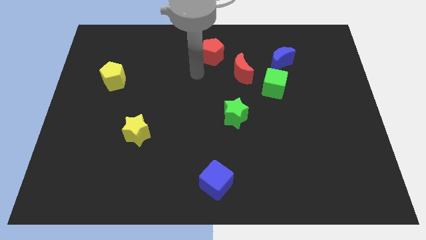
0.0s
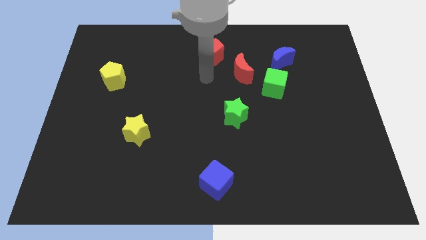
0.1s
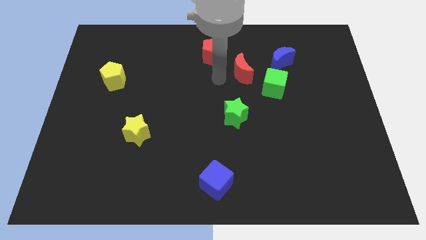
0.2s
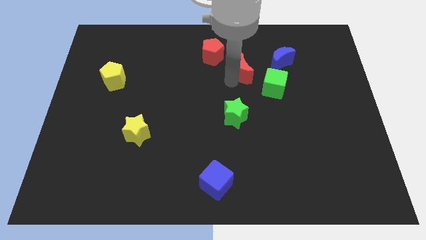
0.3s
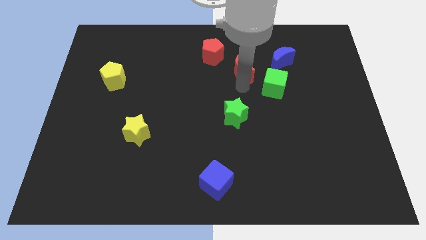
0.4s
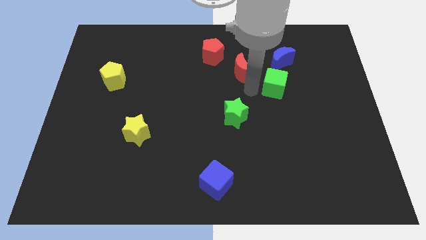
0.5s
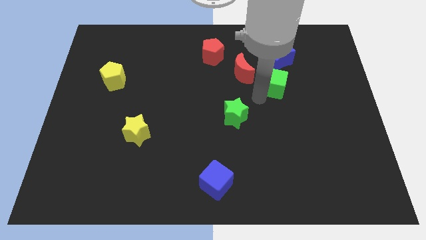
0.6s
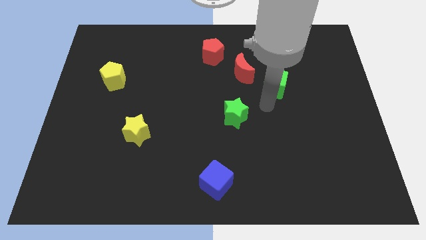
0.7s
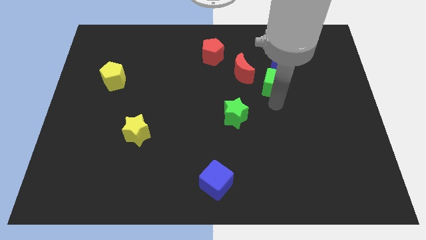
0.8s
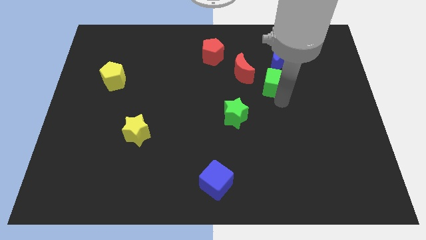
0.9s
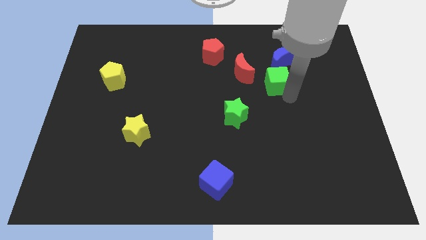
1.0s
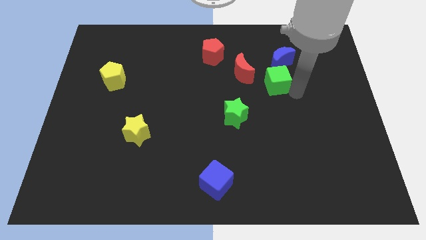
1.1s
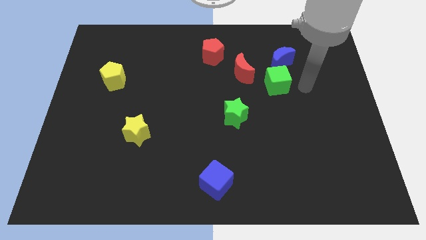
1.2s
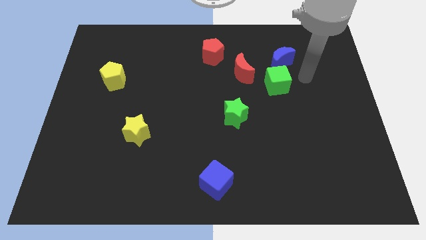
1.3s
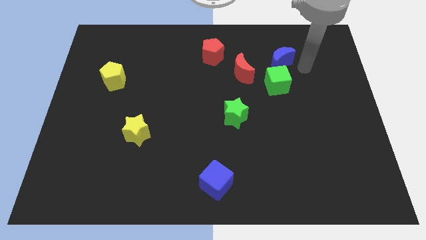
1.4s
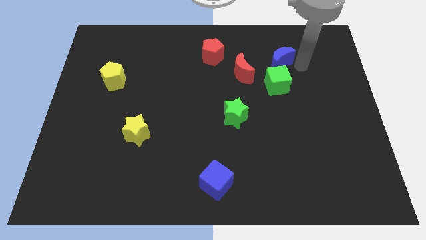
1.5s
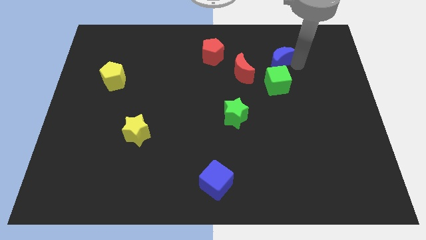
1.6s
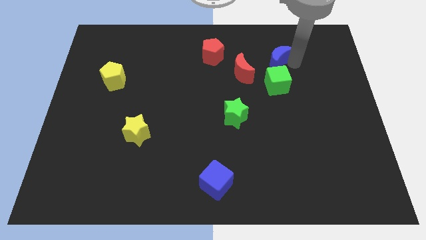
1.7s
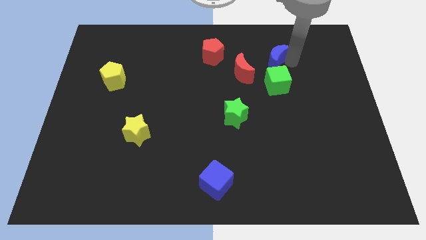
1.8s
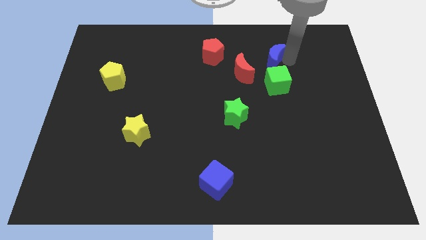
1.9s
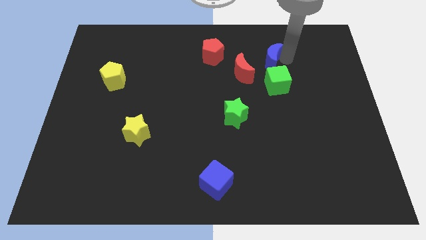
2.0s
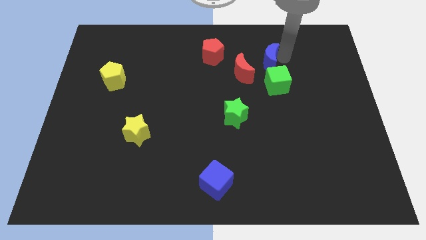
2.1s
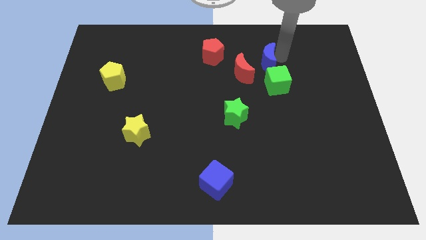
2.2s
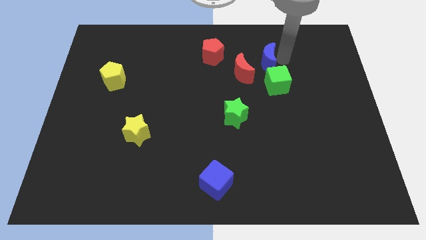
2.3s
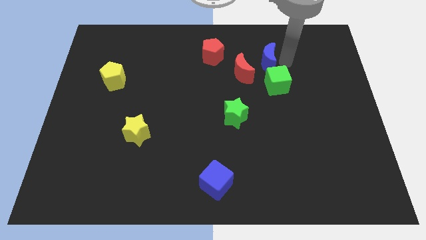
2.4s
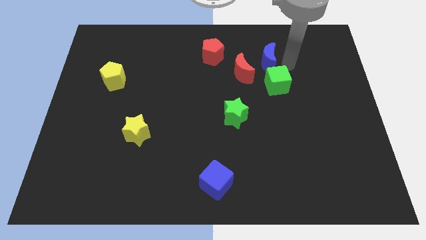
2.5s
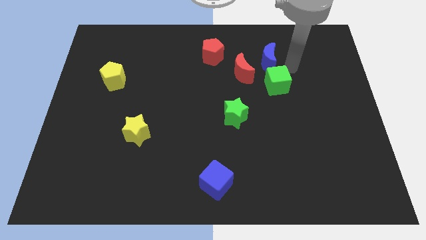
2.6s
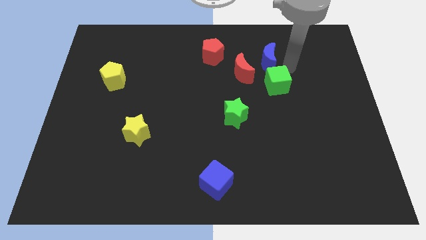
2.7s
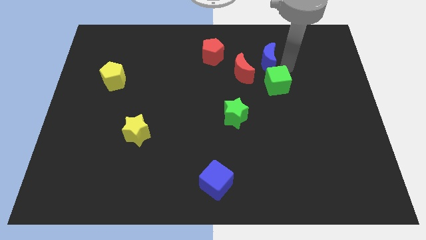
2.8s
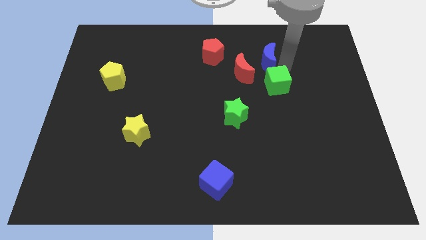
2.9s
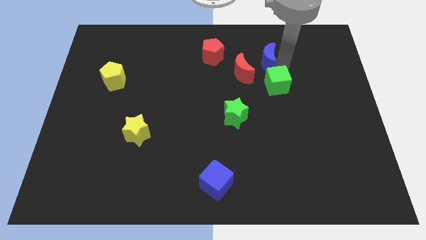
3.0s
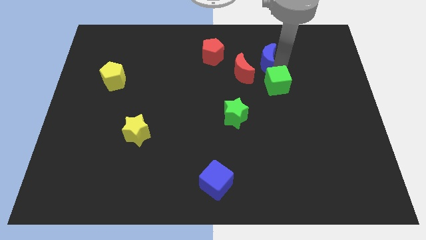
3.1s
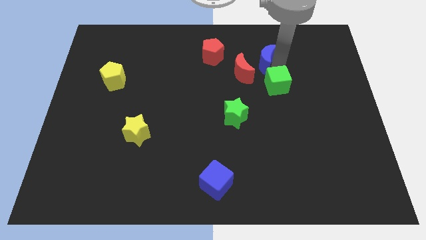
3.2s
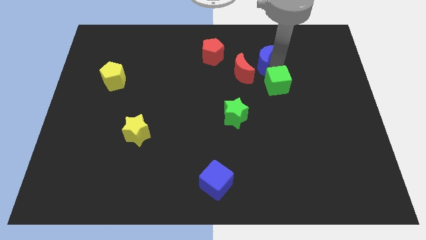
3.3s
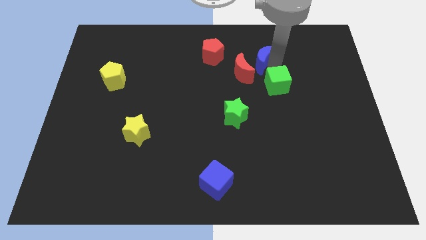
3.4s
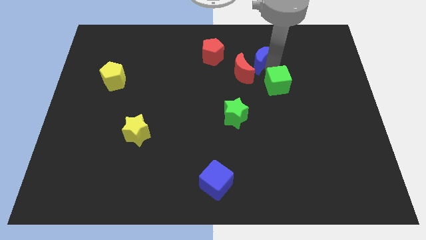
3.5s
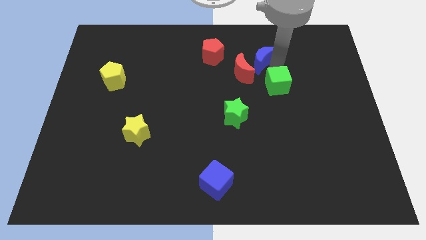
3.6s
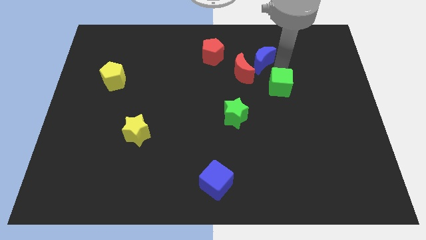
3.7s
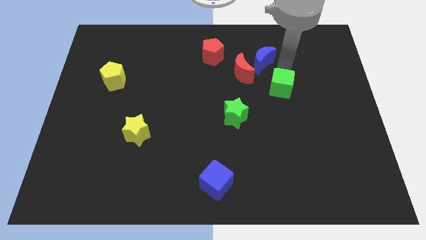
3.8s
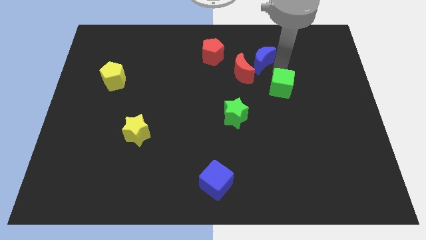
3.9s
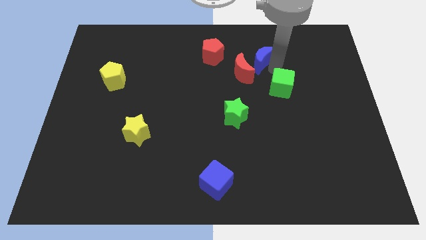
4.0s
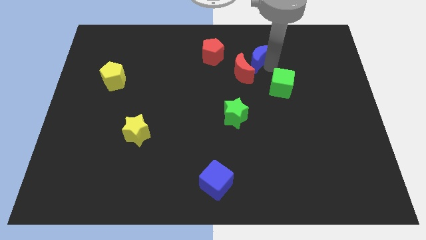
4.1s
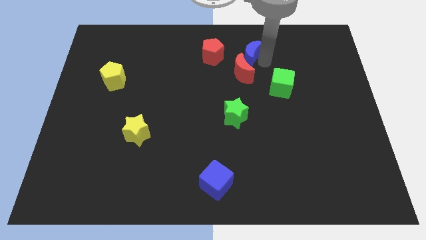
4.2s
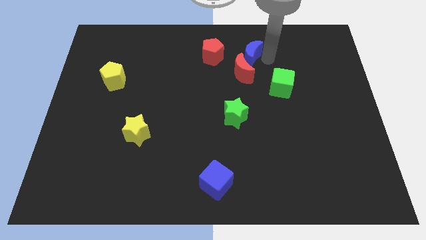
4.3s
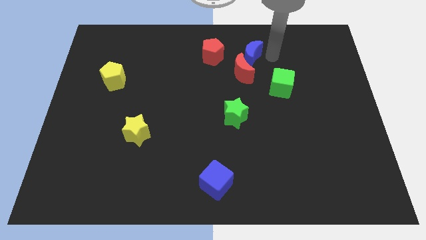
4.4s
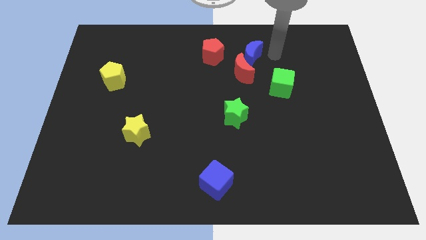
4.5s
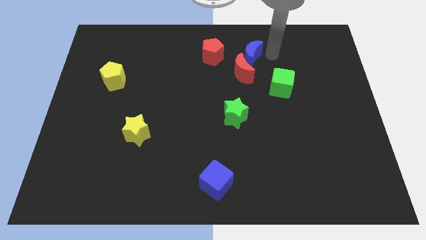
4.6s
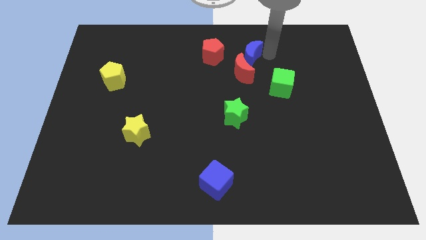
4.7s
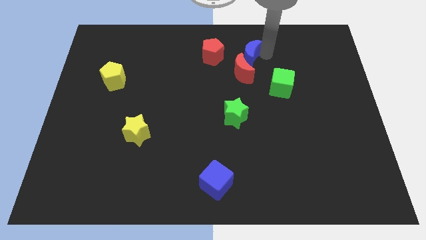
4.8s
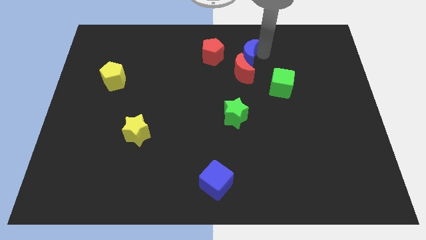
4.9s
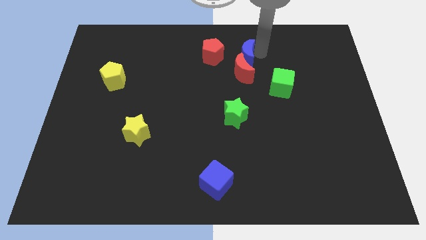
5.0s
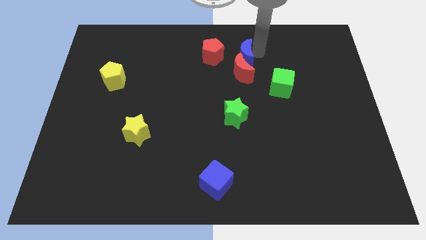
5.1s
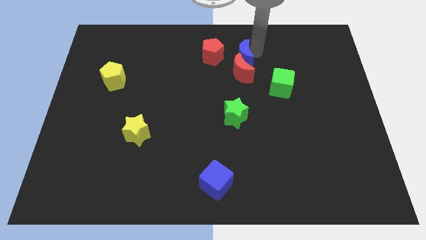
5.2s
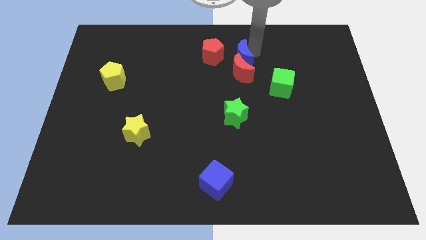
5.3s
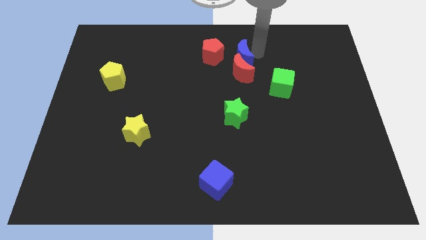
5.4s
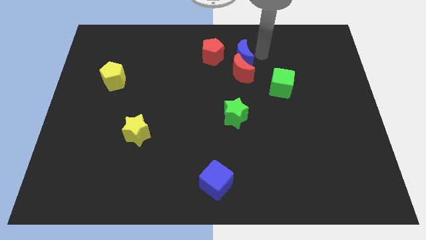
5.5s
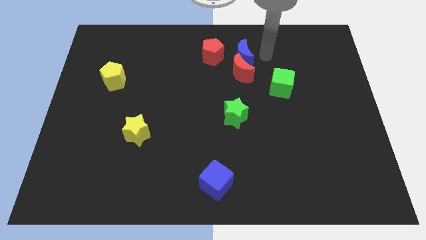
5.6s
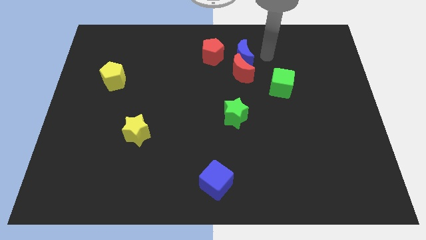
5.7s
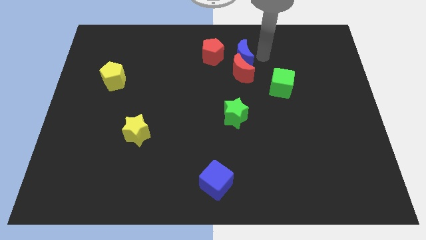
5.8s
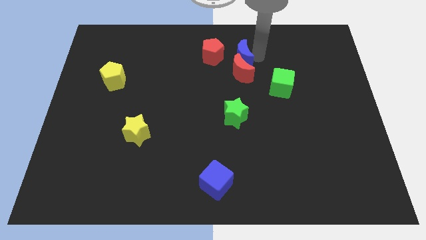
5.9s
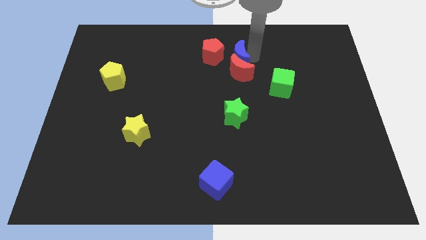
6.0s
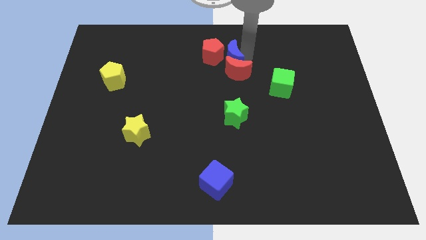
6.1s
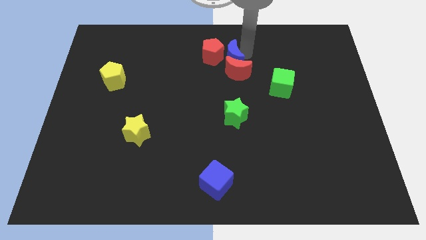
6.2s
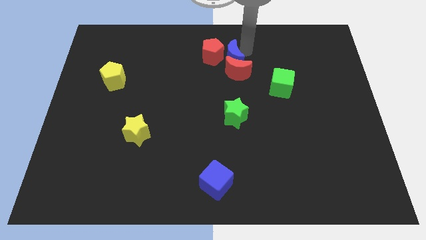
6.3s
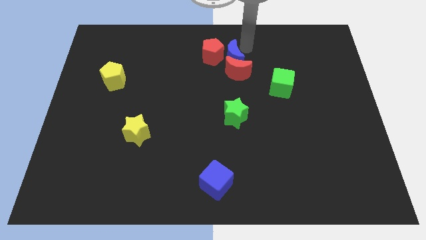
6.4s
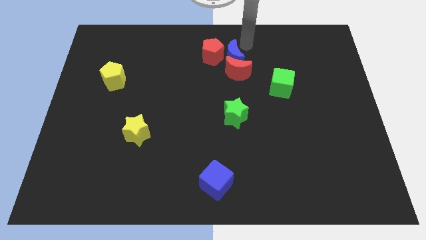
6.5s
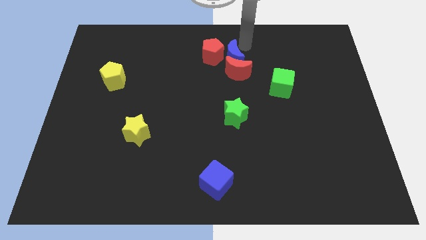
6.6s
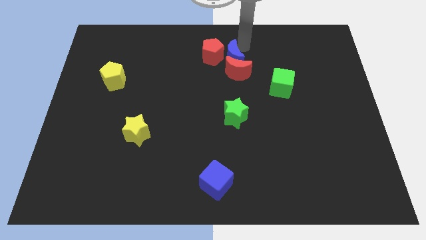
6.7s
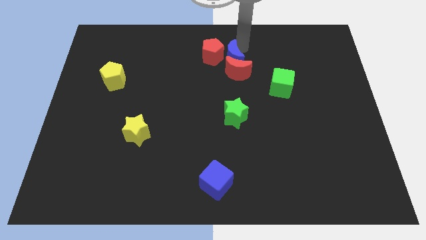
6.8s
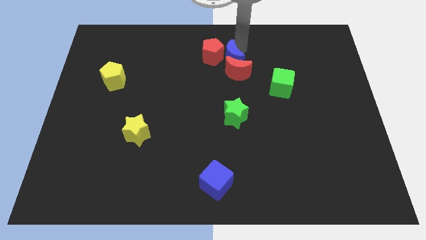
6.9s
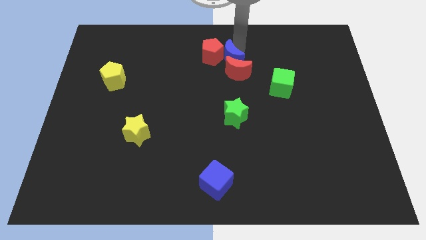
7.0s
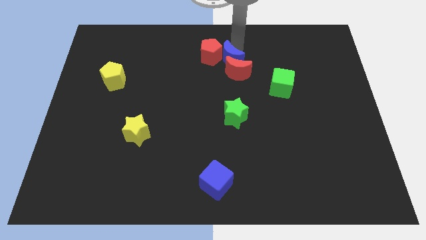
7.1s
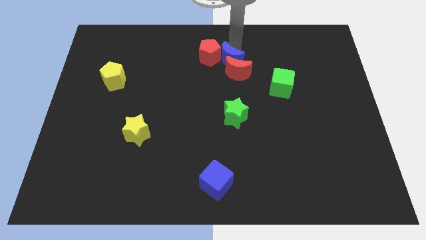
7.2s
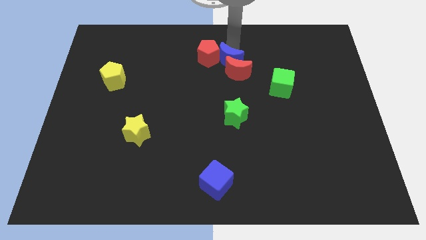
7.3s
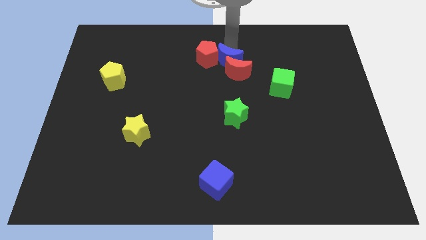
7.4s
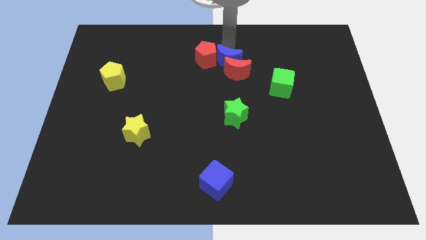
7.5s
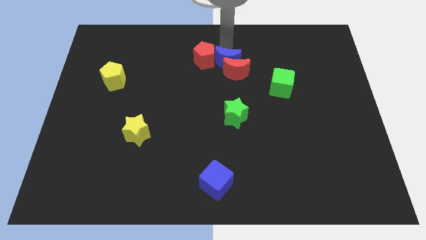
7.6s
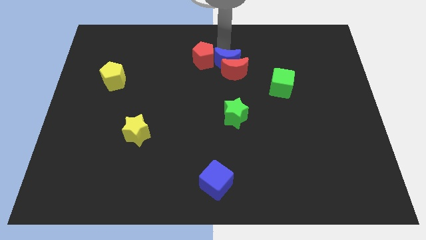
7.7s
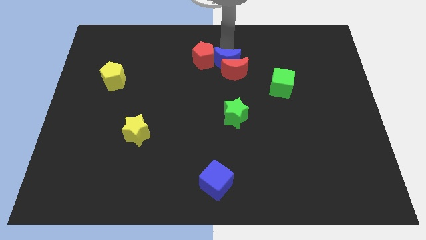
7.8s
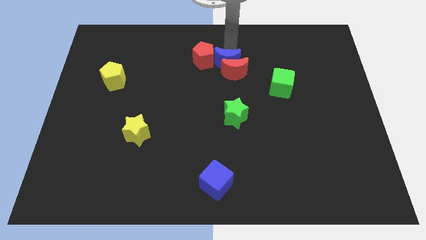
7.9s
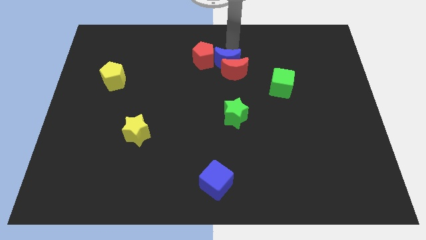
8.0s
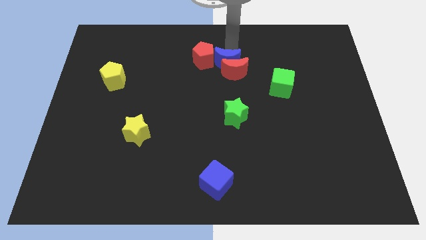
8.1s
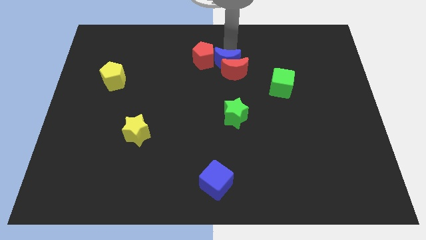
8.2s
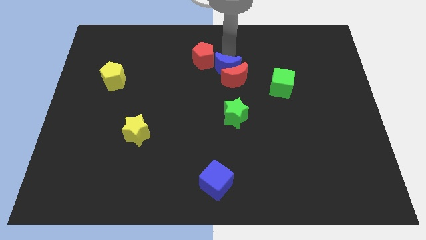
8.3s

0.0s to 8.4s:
move the blue moon to the center
